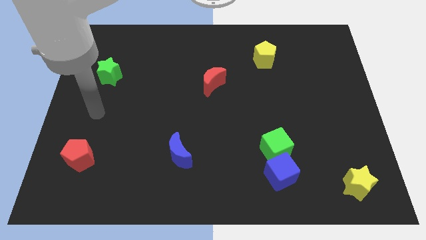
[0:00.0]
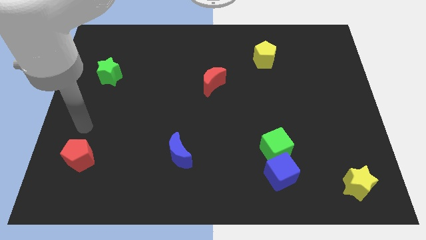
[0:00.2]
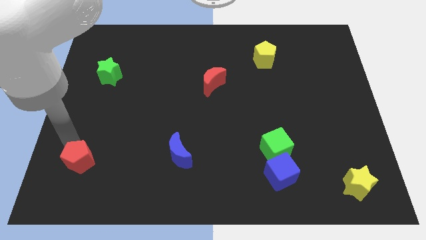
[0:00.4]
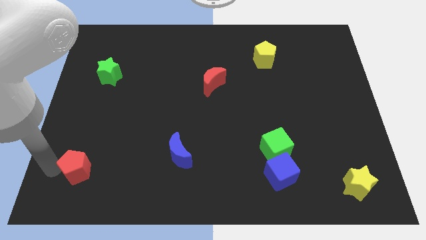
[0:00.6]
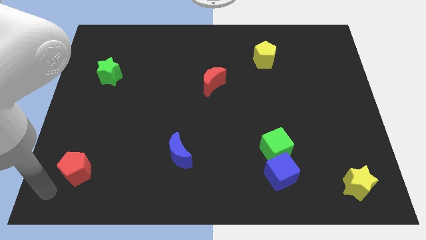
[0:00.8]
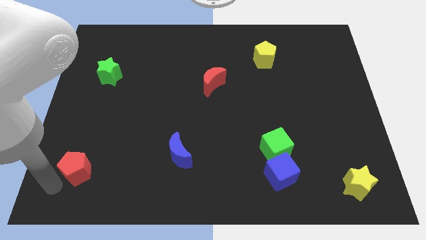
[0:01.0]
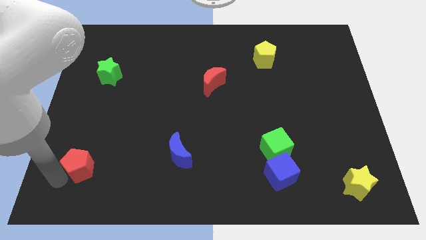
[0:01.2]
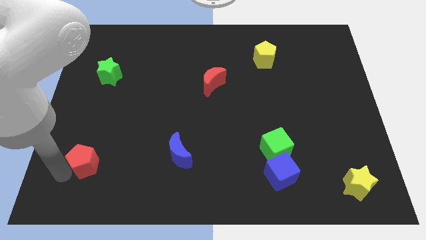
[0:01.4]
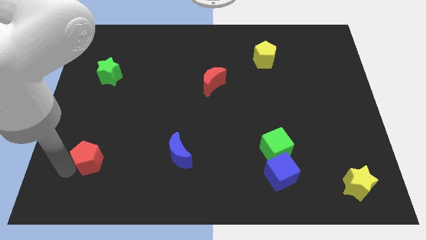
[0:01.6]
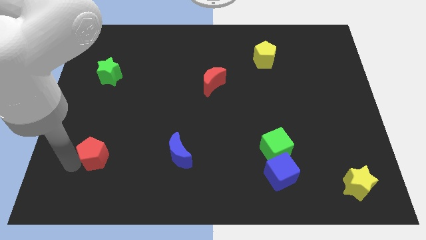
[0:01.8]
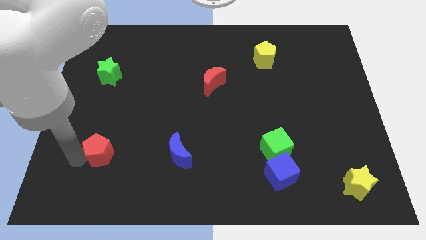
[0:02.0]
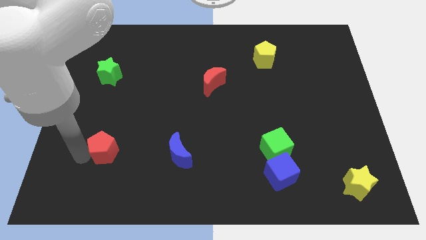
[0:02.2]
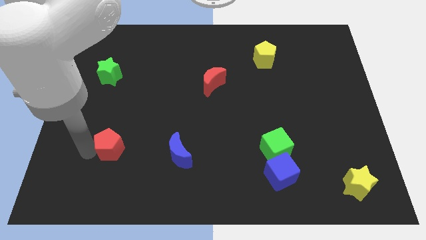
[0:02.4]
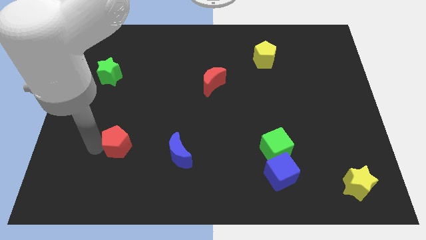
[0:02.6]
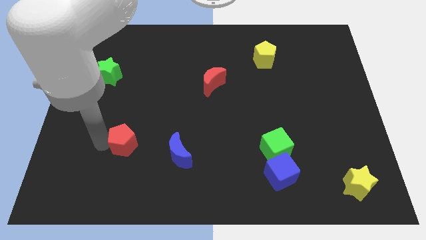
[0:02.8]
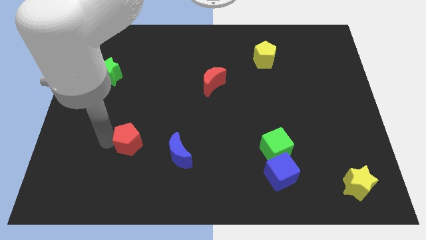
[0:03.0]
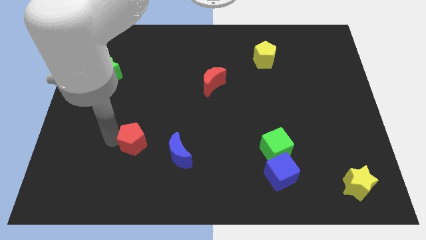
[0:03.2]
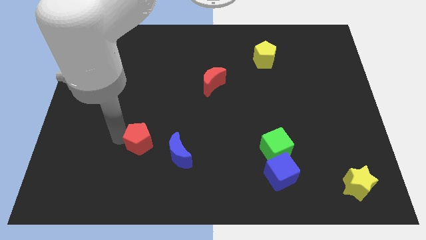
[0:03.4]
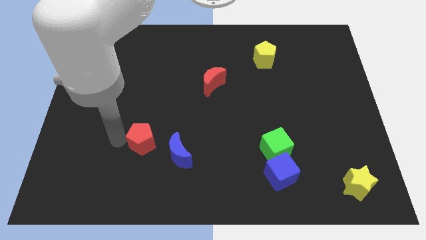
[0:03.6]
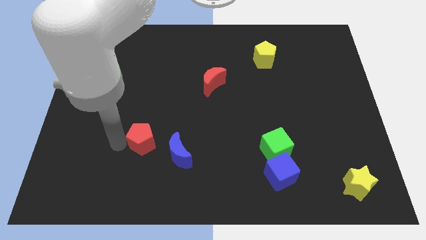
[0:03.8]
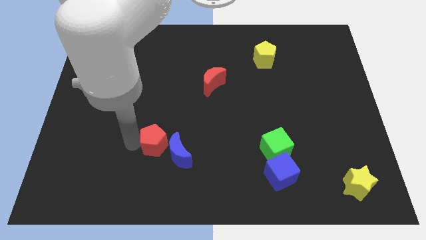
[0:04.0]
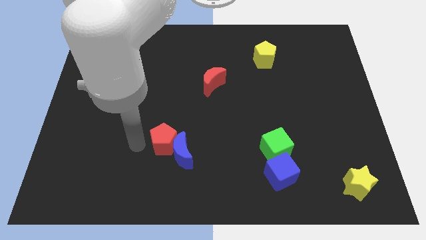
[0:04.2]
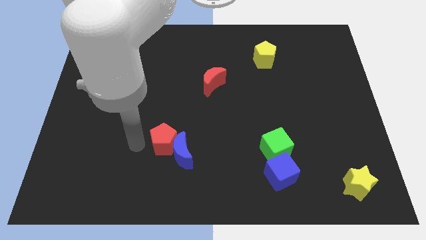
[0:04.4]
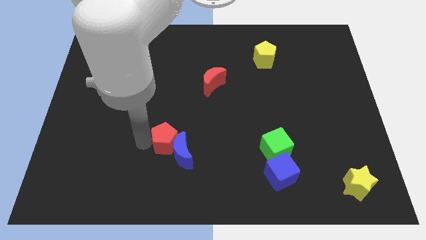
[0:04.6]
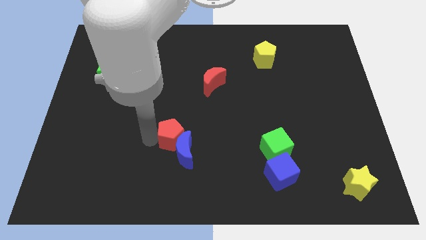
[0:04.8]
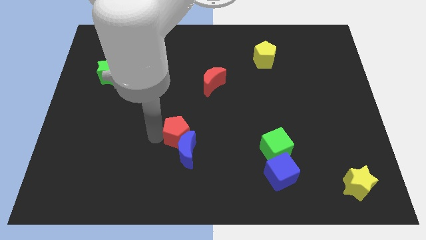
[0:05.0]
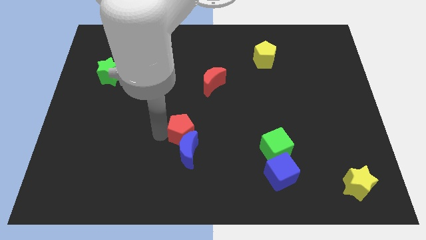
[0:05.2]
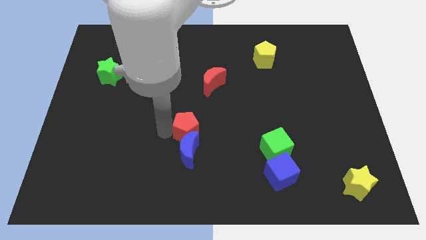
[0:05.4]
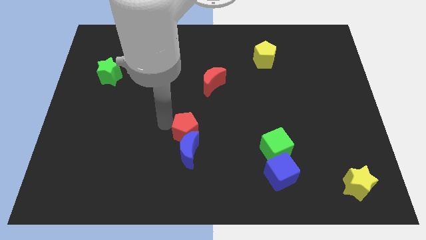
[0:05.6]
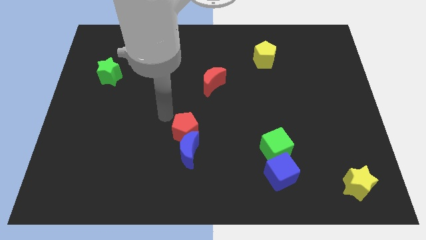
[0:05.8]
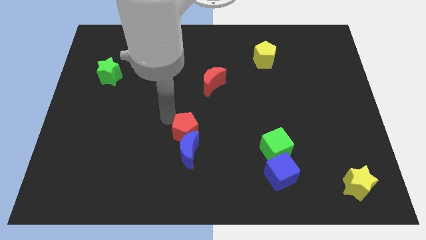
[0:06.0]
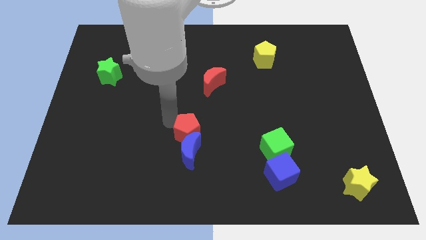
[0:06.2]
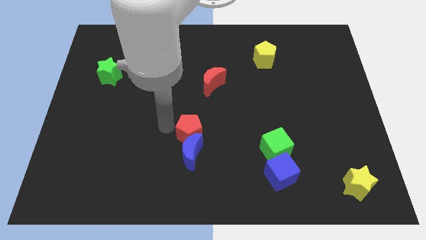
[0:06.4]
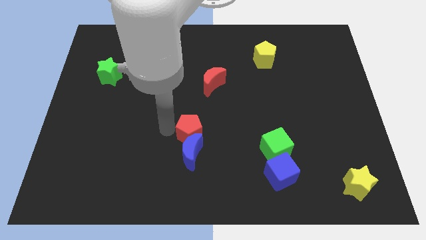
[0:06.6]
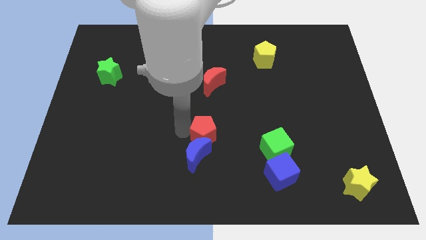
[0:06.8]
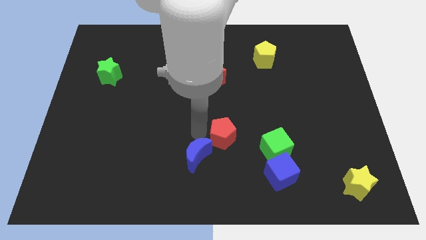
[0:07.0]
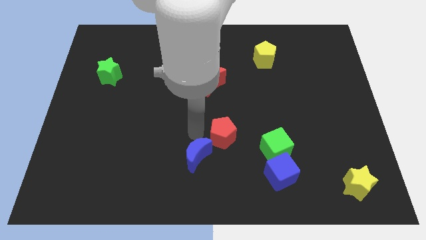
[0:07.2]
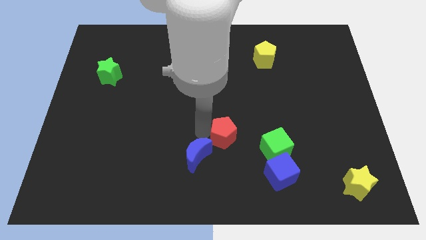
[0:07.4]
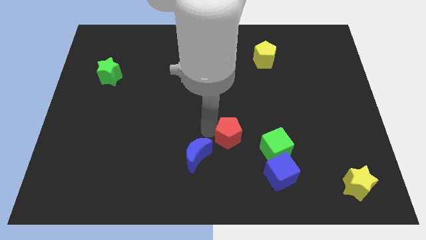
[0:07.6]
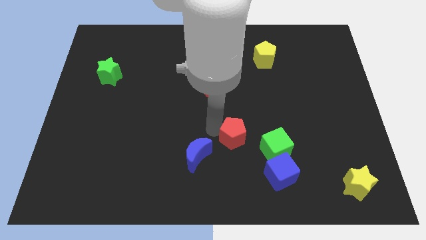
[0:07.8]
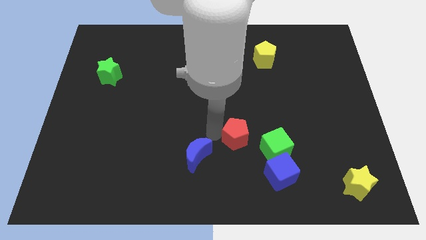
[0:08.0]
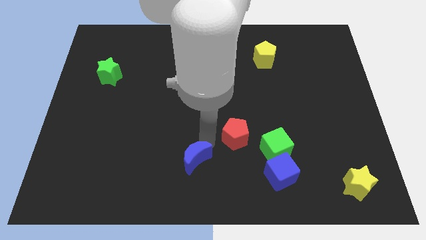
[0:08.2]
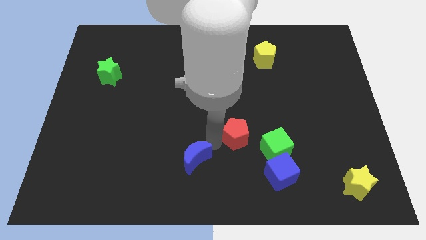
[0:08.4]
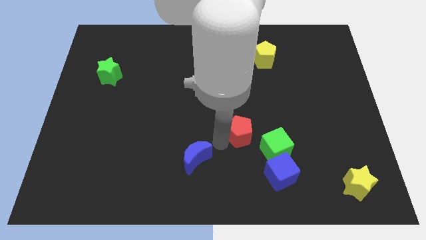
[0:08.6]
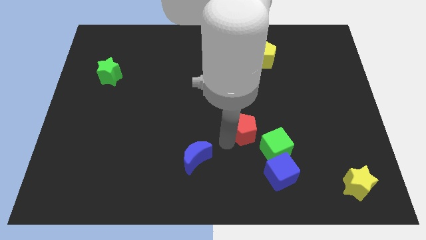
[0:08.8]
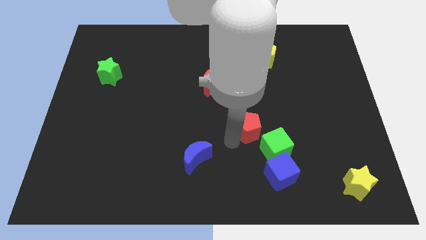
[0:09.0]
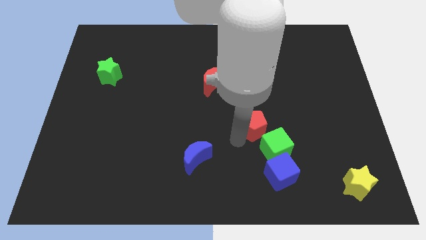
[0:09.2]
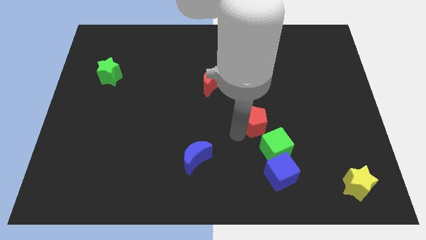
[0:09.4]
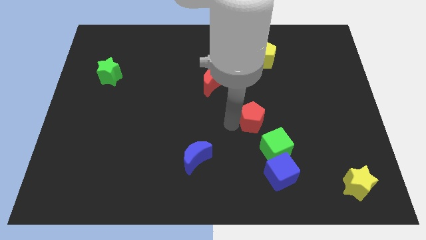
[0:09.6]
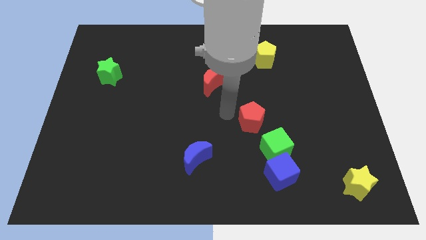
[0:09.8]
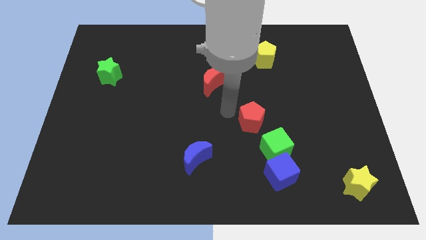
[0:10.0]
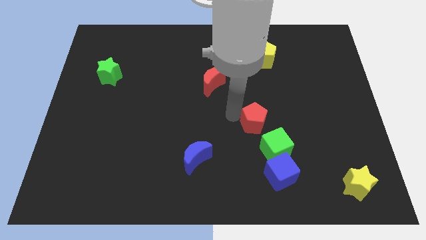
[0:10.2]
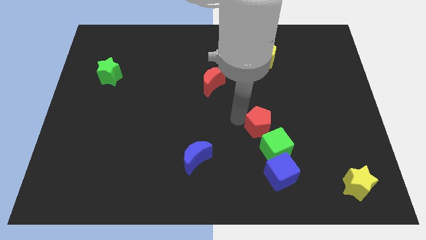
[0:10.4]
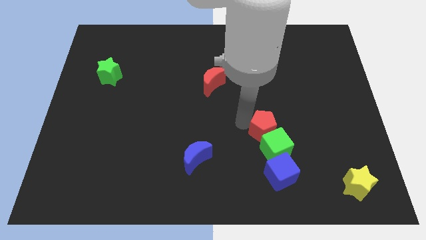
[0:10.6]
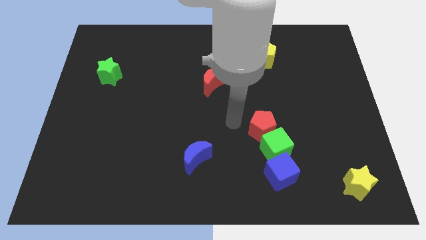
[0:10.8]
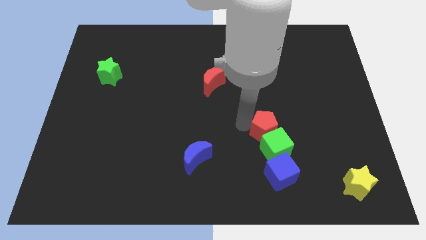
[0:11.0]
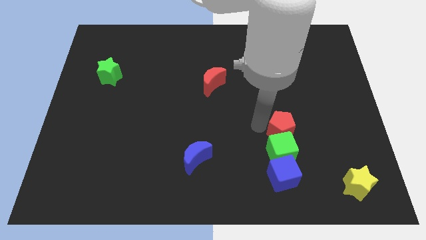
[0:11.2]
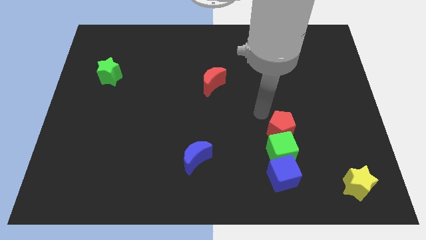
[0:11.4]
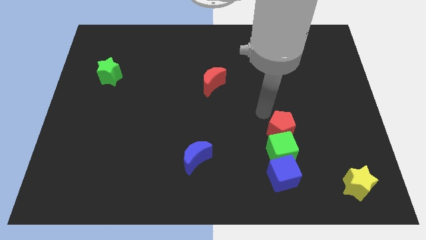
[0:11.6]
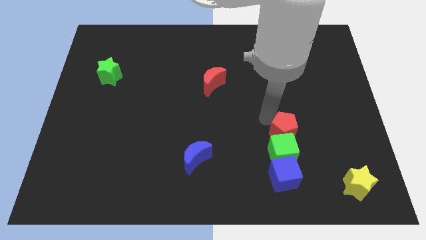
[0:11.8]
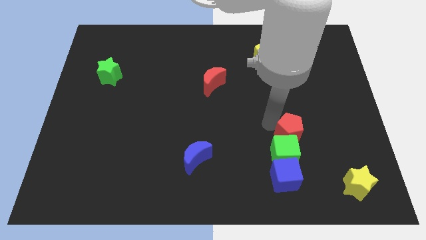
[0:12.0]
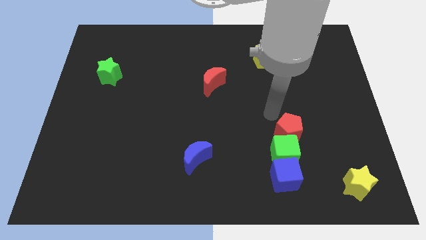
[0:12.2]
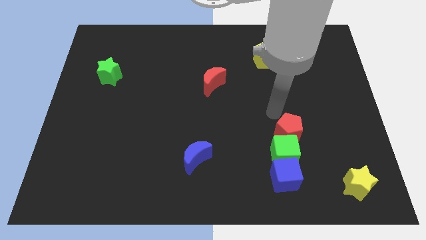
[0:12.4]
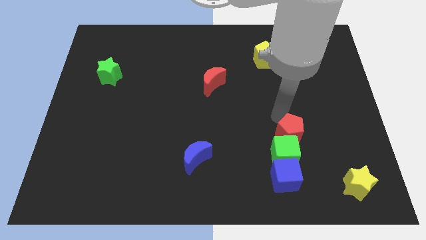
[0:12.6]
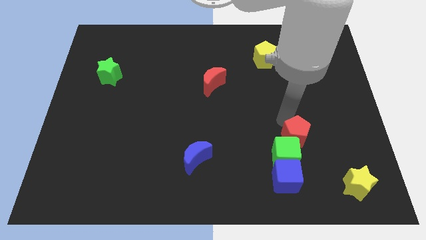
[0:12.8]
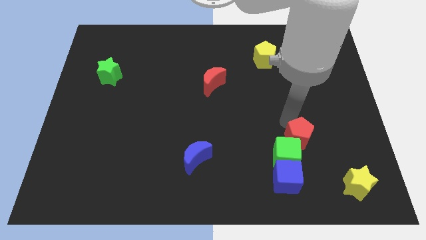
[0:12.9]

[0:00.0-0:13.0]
push the red pentagon to the top right of the blue cube

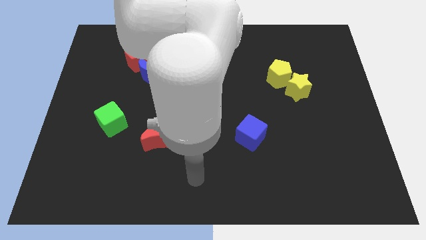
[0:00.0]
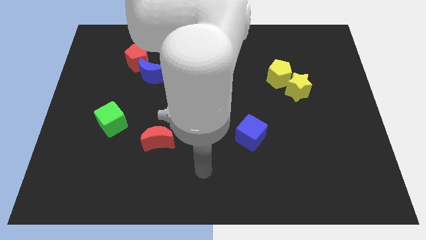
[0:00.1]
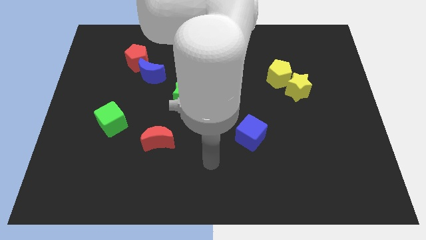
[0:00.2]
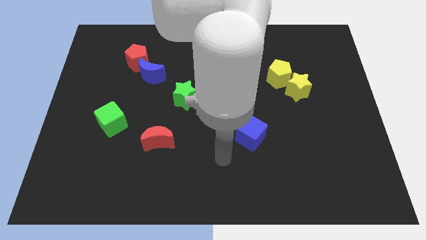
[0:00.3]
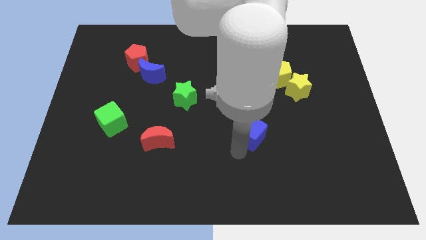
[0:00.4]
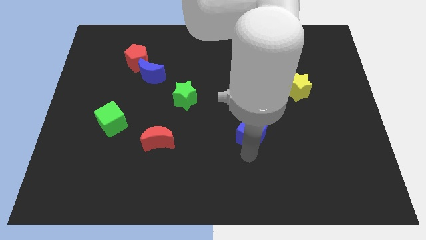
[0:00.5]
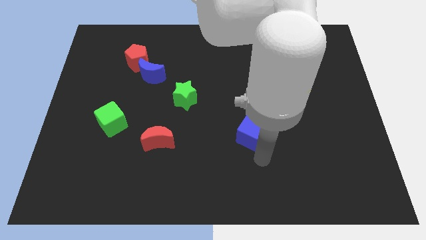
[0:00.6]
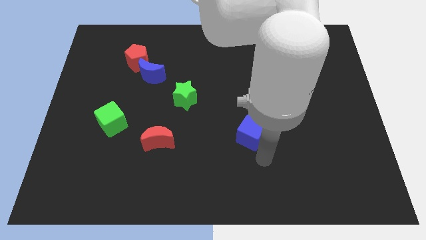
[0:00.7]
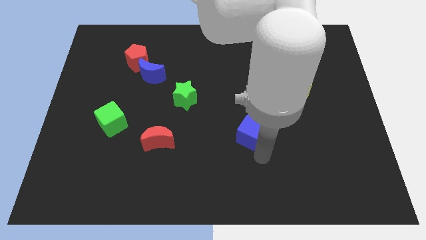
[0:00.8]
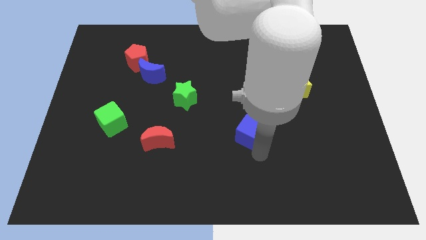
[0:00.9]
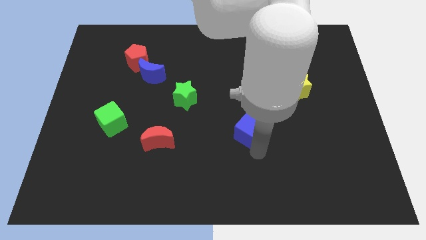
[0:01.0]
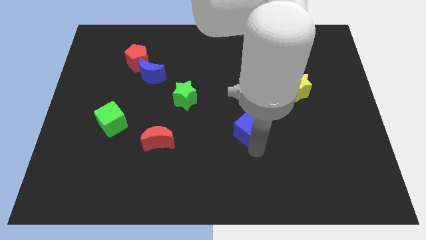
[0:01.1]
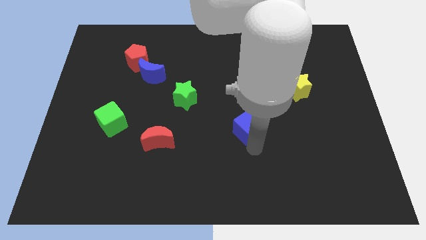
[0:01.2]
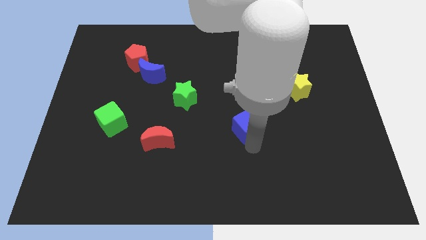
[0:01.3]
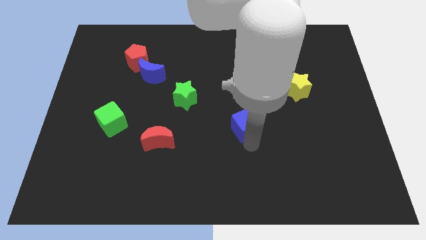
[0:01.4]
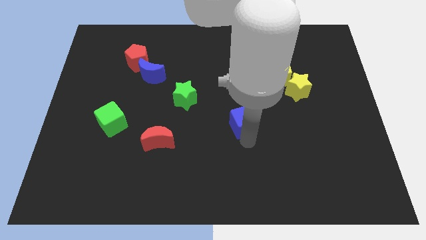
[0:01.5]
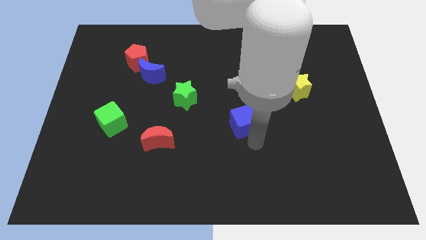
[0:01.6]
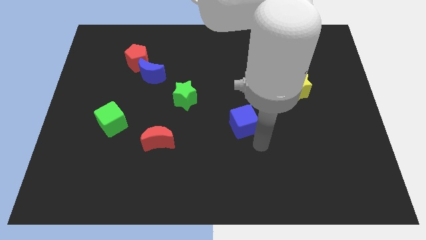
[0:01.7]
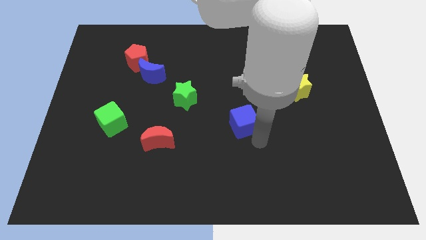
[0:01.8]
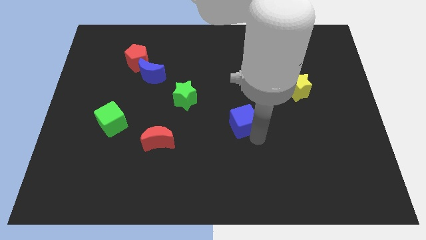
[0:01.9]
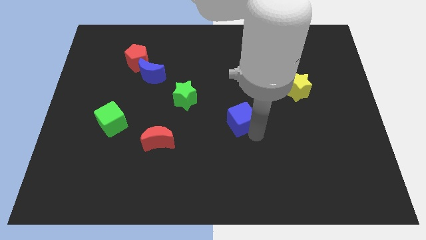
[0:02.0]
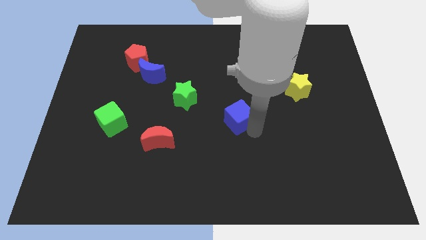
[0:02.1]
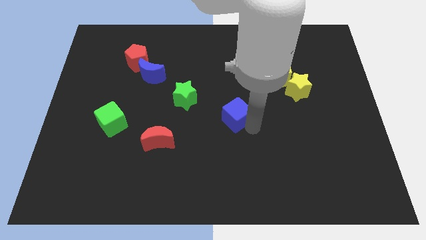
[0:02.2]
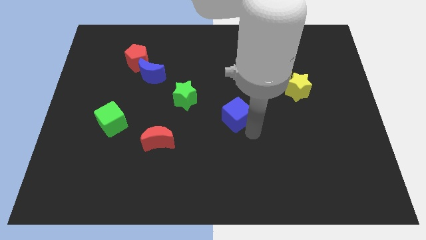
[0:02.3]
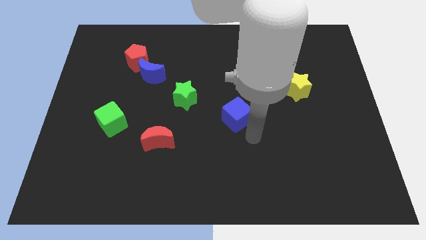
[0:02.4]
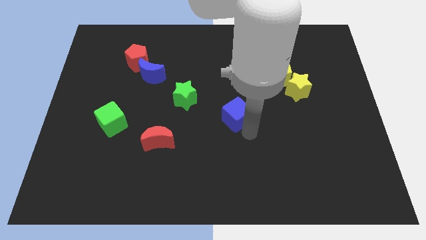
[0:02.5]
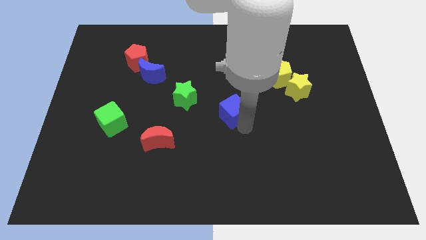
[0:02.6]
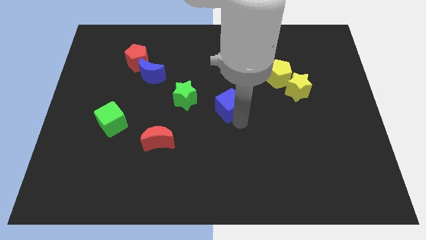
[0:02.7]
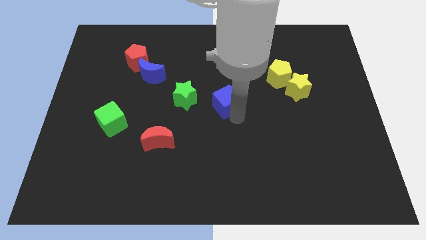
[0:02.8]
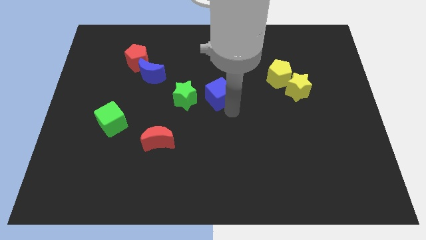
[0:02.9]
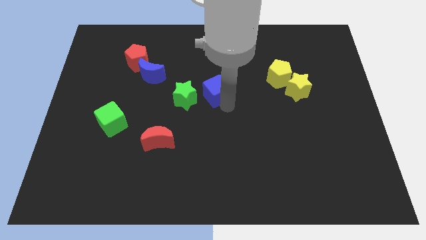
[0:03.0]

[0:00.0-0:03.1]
put the blue cube to the top right side of the green star
